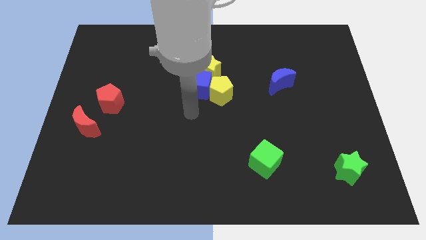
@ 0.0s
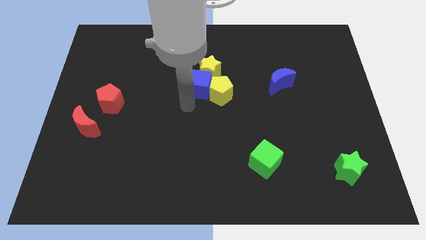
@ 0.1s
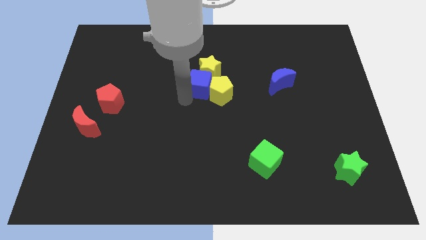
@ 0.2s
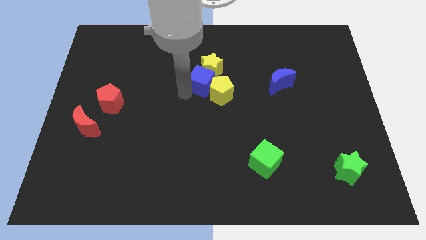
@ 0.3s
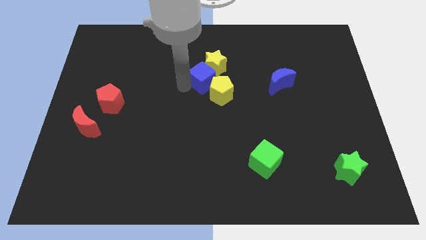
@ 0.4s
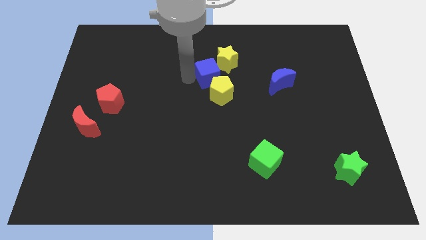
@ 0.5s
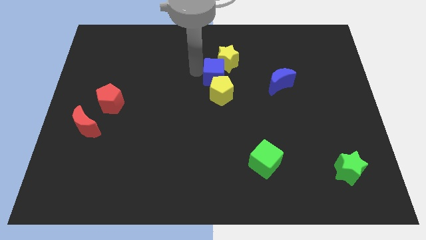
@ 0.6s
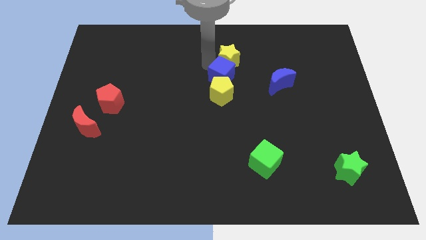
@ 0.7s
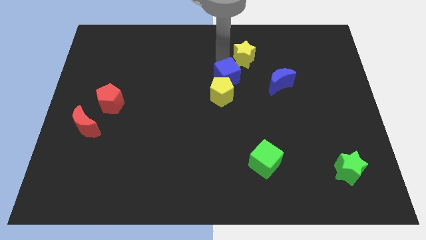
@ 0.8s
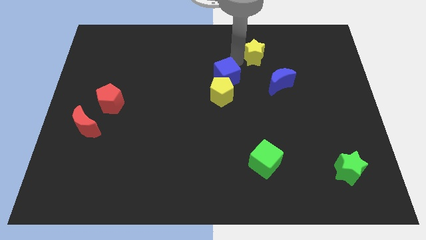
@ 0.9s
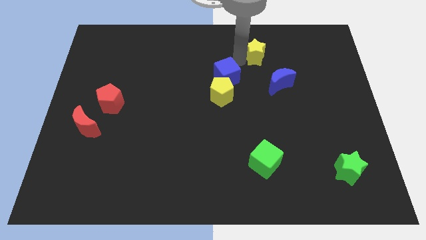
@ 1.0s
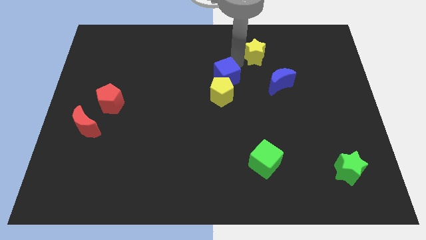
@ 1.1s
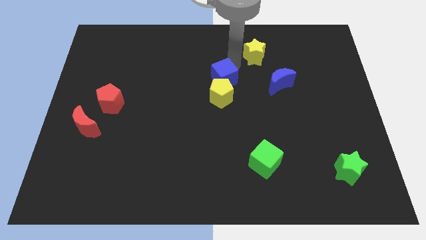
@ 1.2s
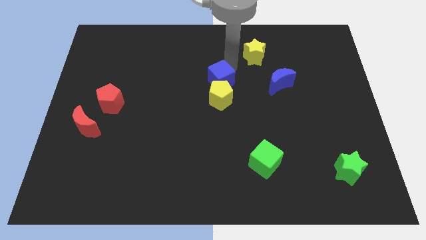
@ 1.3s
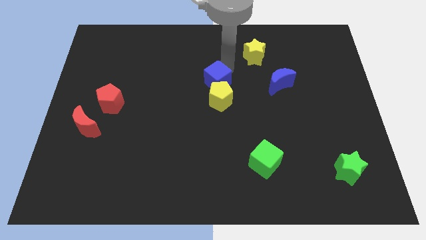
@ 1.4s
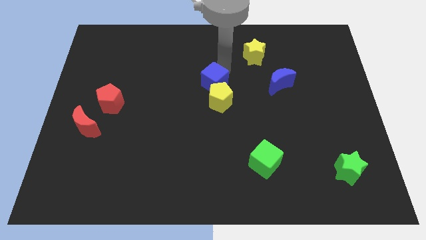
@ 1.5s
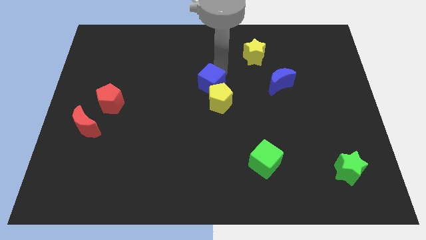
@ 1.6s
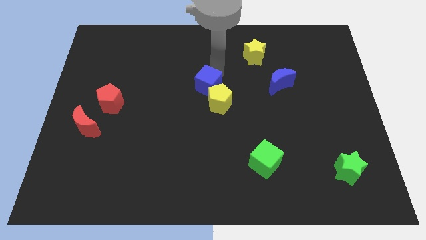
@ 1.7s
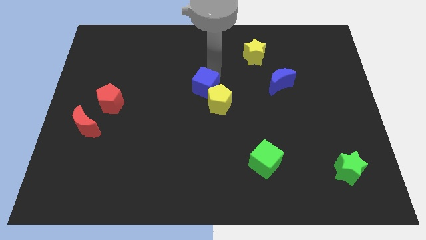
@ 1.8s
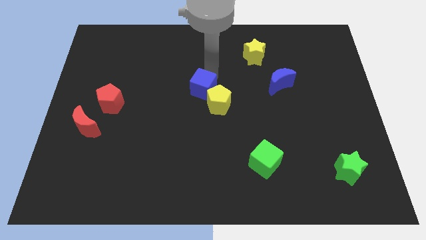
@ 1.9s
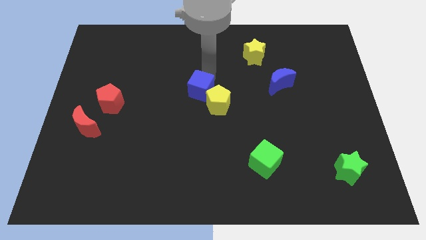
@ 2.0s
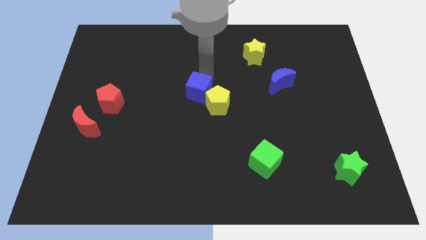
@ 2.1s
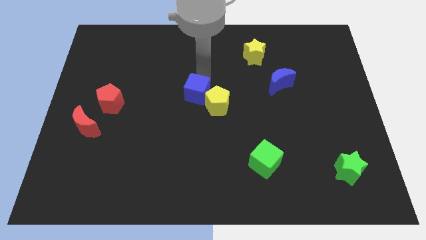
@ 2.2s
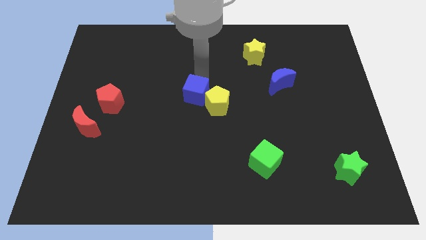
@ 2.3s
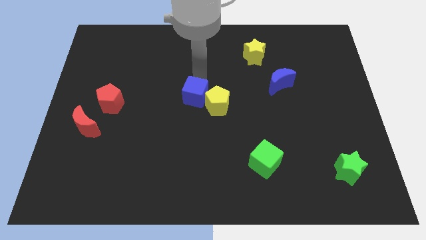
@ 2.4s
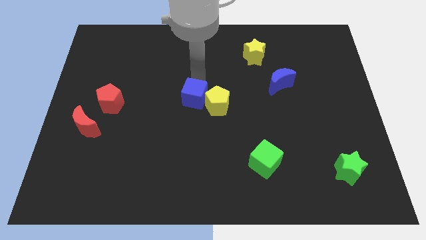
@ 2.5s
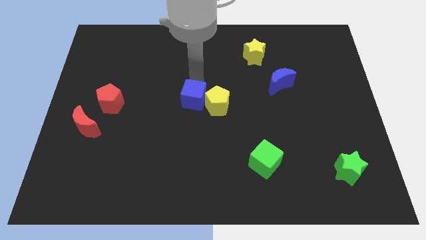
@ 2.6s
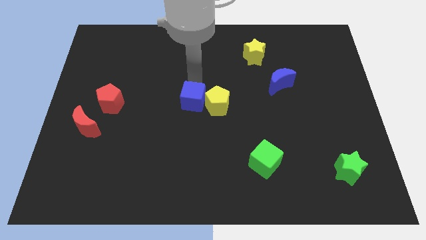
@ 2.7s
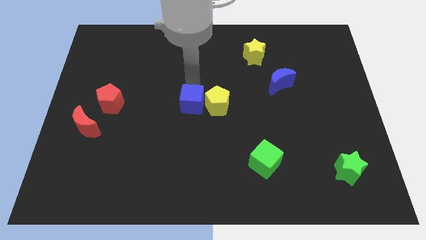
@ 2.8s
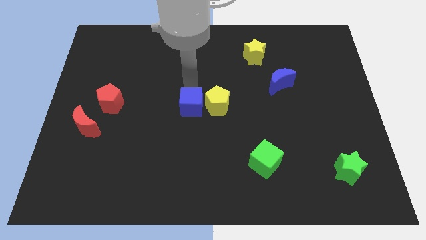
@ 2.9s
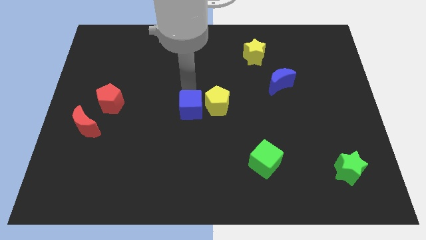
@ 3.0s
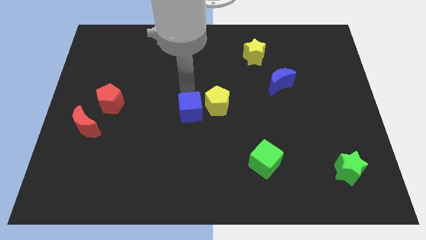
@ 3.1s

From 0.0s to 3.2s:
push the blue cube a little bit downwards

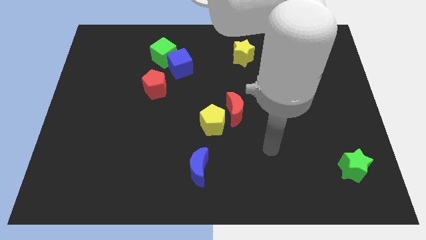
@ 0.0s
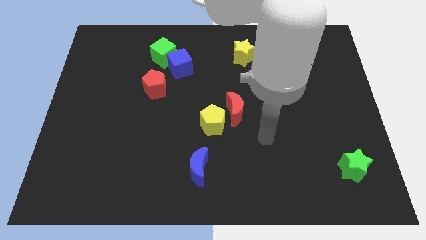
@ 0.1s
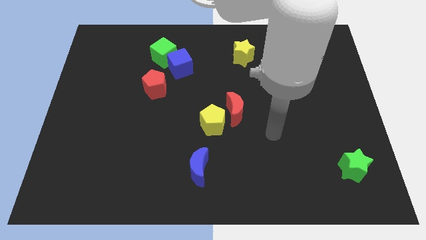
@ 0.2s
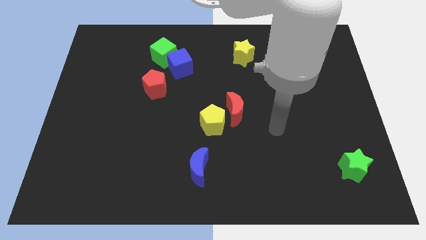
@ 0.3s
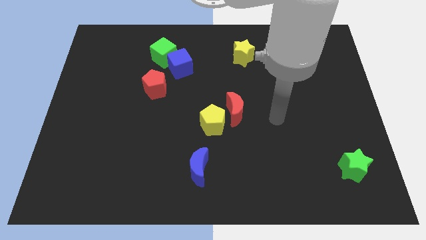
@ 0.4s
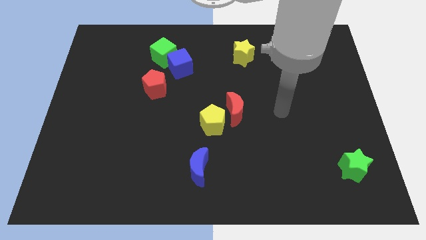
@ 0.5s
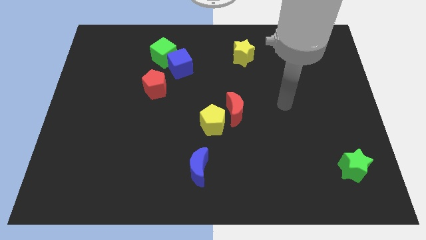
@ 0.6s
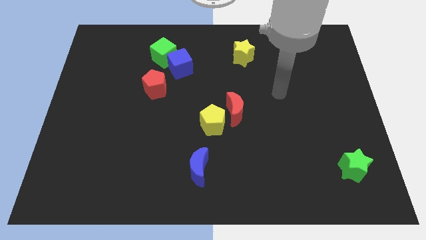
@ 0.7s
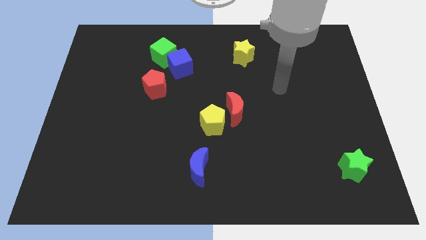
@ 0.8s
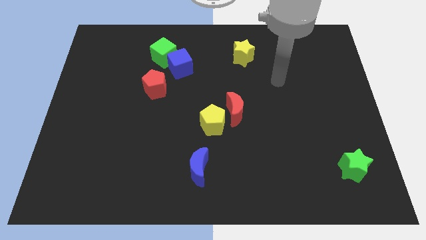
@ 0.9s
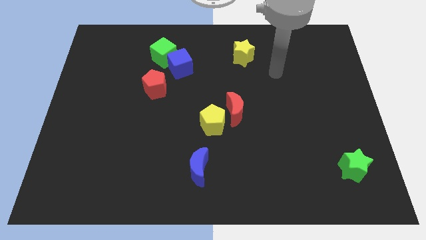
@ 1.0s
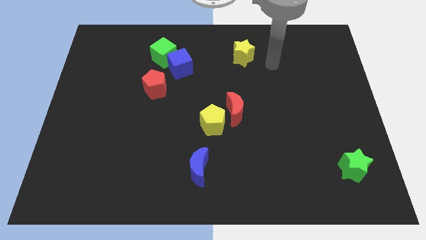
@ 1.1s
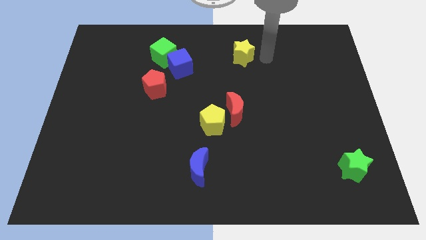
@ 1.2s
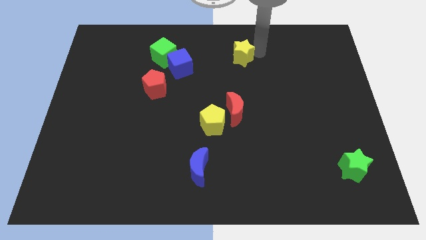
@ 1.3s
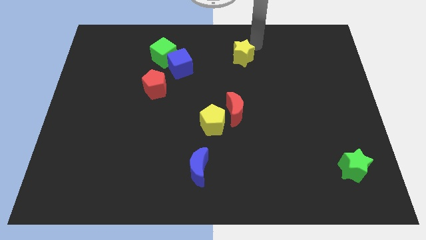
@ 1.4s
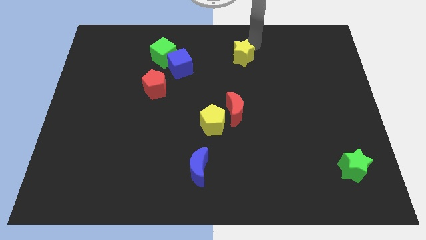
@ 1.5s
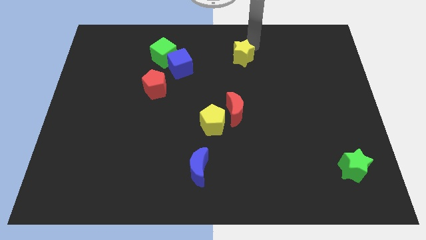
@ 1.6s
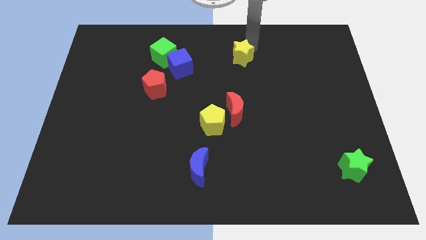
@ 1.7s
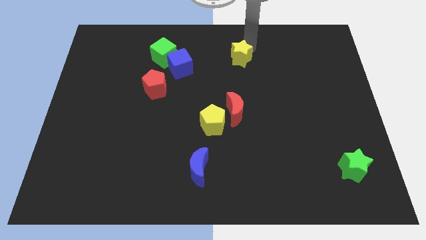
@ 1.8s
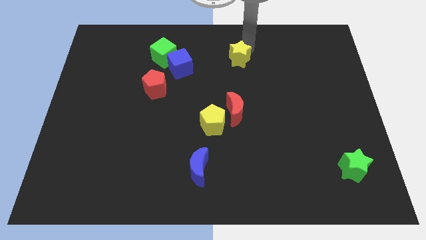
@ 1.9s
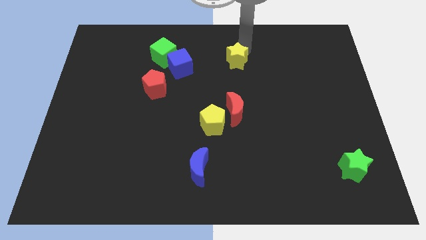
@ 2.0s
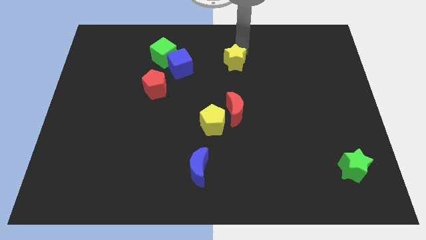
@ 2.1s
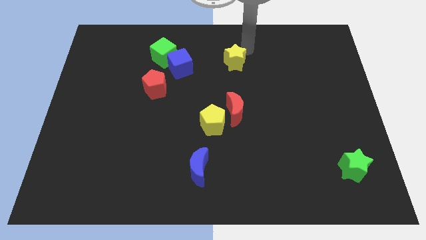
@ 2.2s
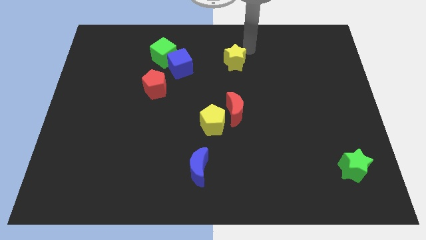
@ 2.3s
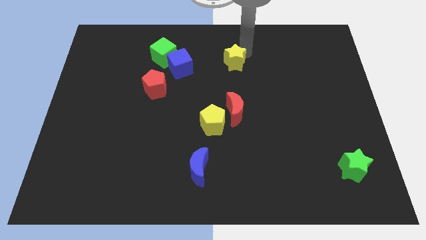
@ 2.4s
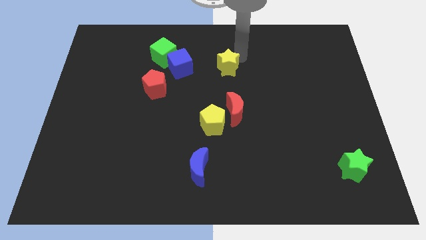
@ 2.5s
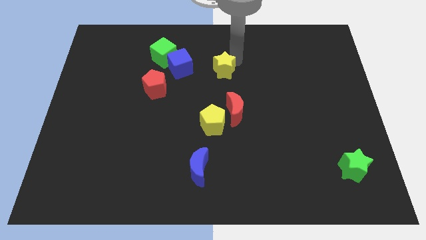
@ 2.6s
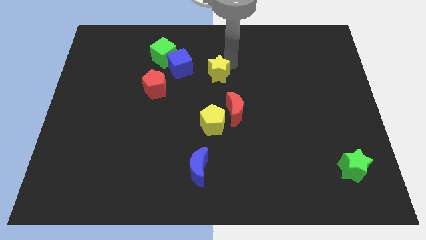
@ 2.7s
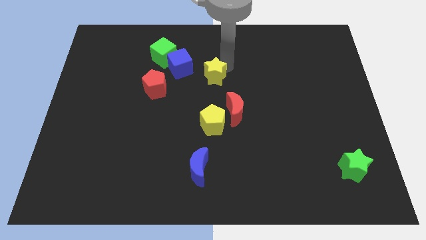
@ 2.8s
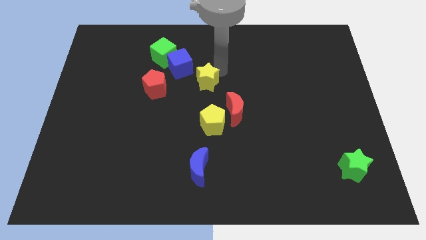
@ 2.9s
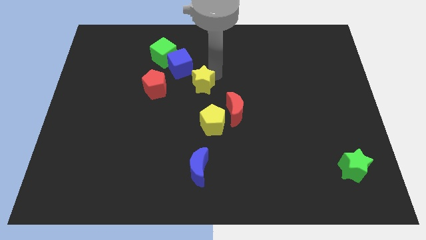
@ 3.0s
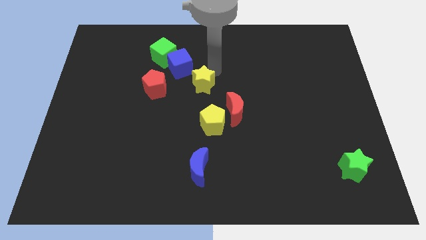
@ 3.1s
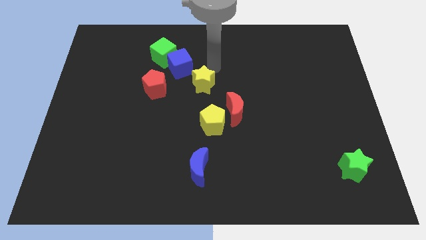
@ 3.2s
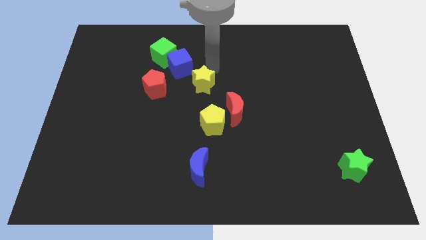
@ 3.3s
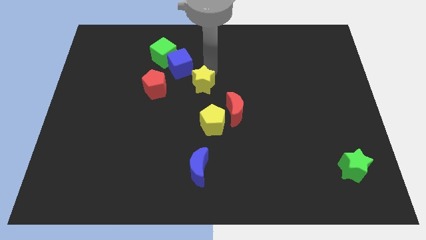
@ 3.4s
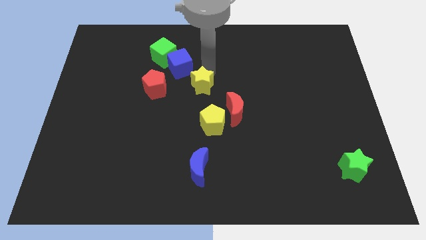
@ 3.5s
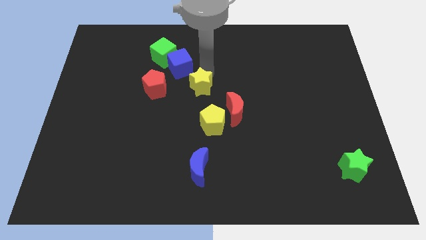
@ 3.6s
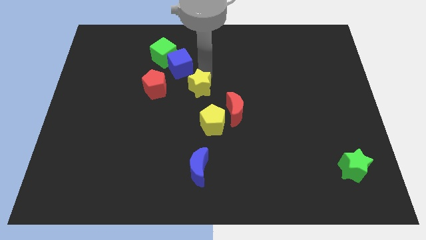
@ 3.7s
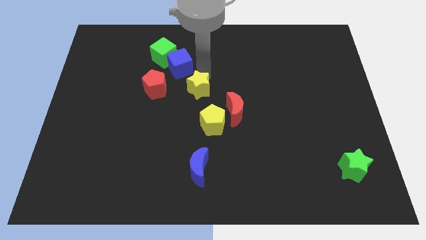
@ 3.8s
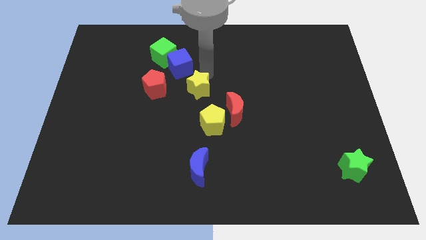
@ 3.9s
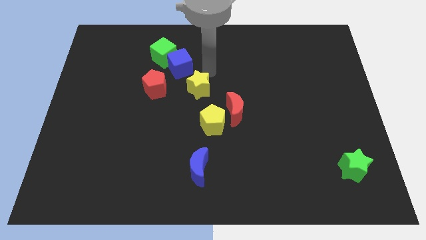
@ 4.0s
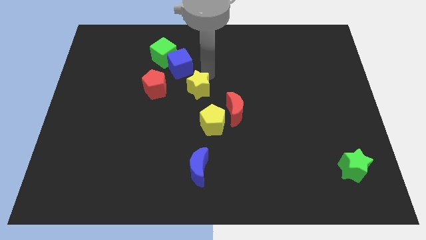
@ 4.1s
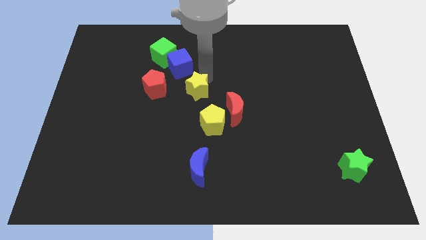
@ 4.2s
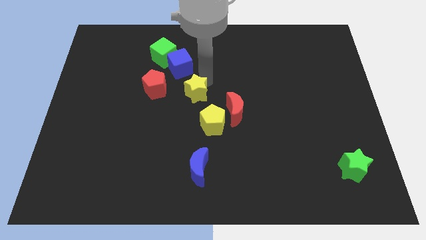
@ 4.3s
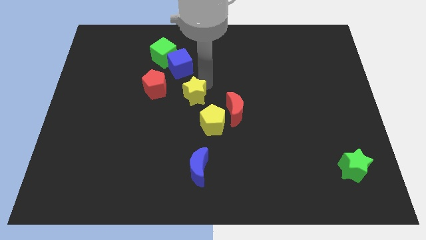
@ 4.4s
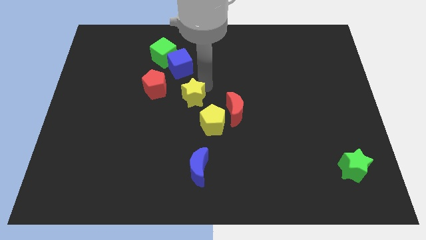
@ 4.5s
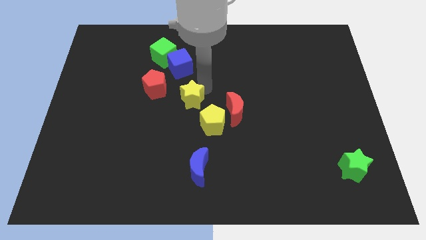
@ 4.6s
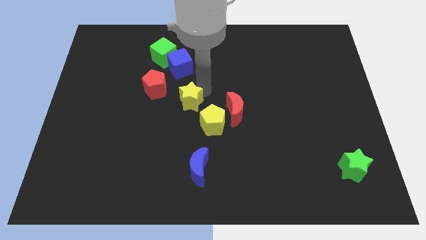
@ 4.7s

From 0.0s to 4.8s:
push the yellow star down and to the left diagonally

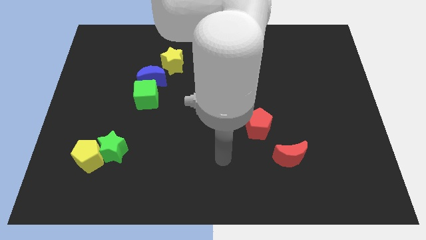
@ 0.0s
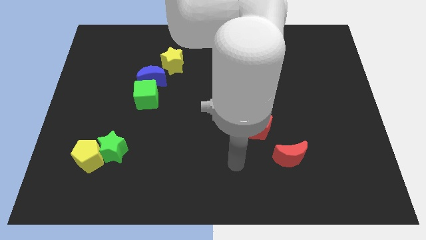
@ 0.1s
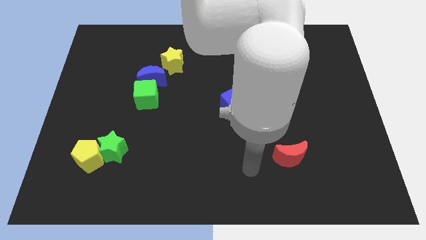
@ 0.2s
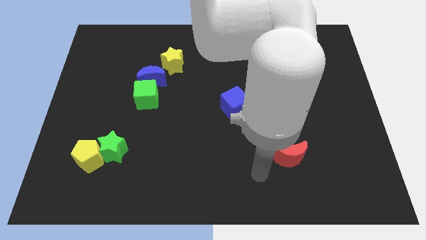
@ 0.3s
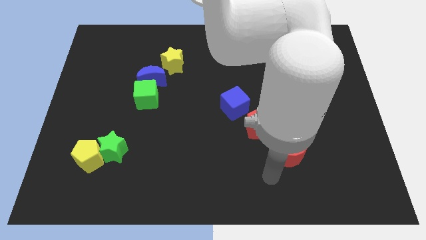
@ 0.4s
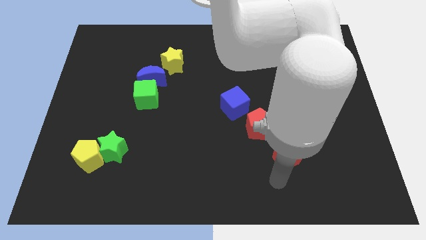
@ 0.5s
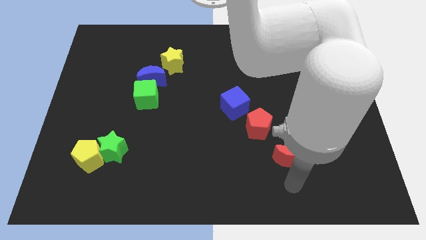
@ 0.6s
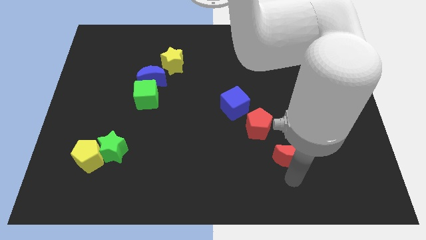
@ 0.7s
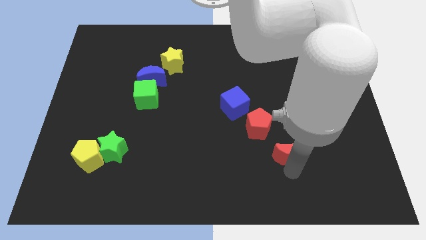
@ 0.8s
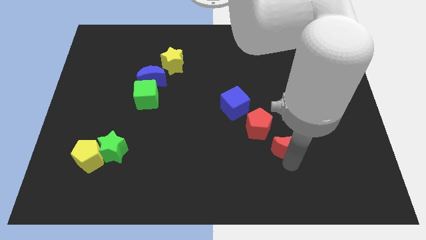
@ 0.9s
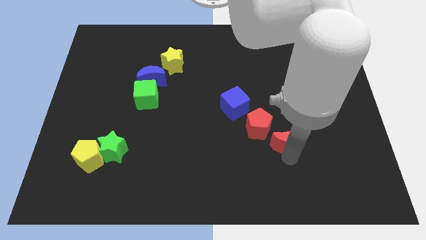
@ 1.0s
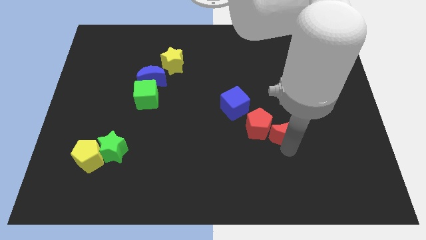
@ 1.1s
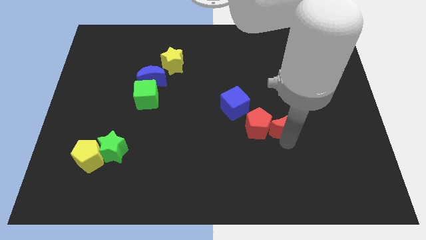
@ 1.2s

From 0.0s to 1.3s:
slightly slide the red moon upwards
